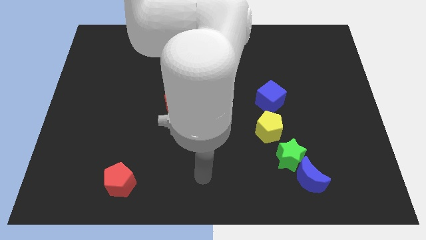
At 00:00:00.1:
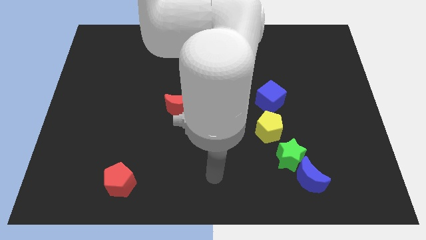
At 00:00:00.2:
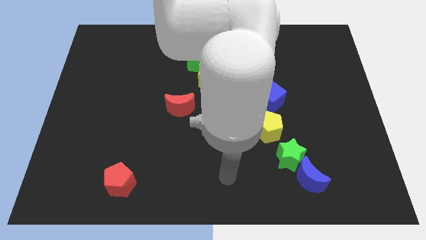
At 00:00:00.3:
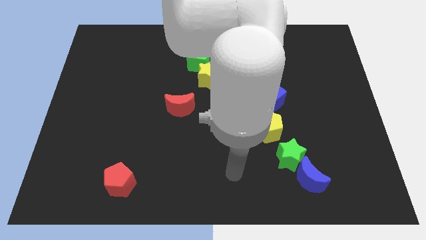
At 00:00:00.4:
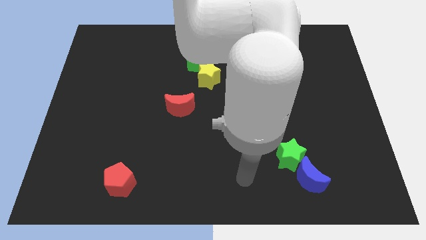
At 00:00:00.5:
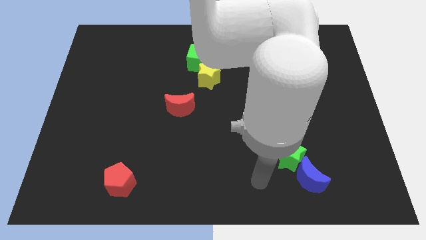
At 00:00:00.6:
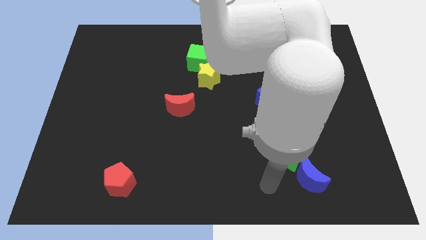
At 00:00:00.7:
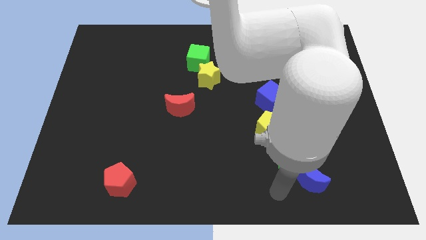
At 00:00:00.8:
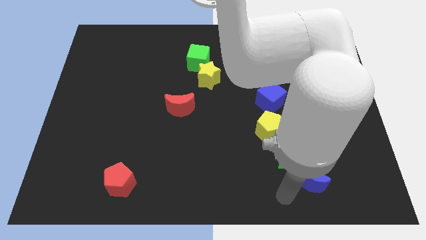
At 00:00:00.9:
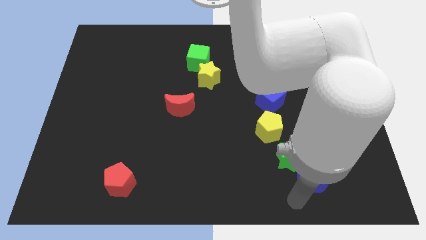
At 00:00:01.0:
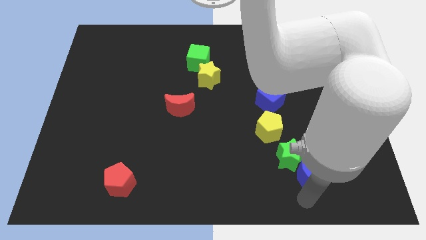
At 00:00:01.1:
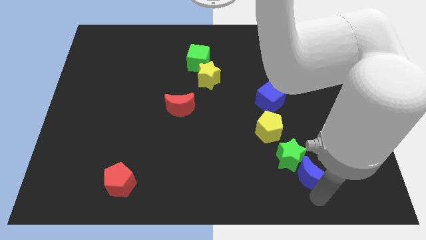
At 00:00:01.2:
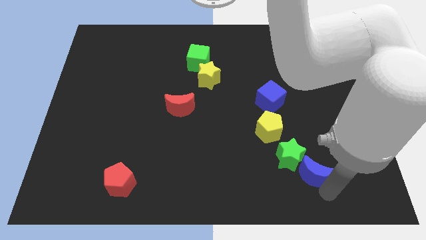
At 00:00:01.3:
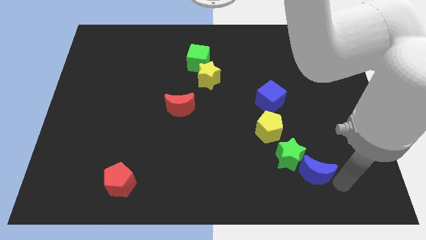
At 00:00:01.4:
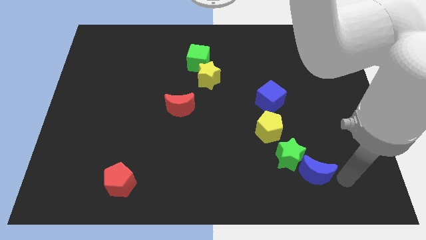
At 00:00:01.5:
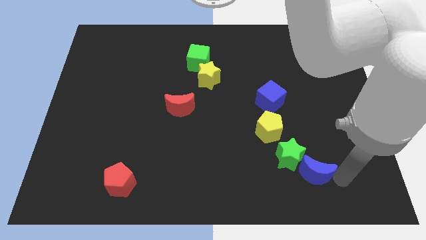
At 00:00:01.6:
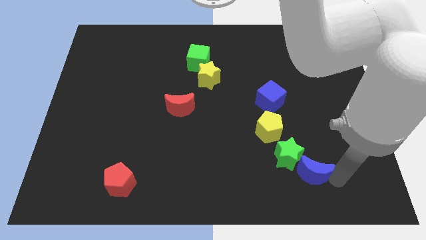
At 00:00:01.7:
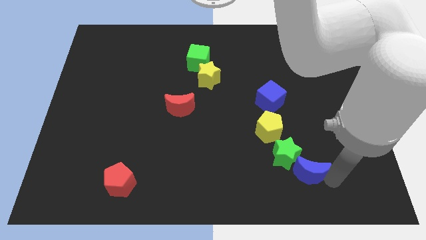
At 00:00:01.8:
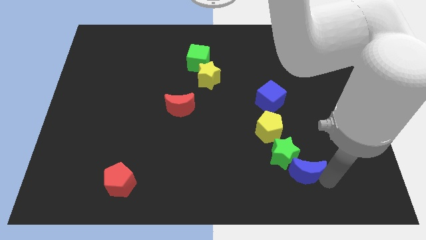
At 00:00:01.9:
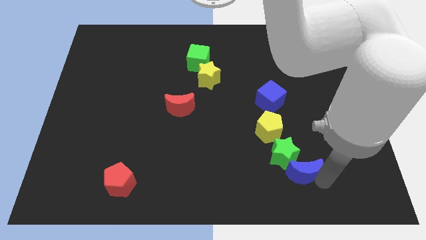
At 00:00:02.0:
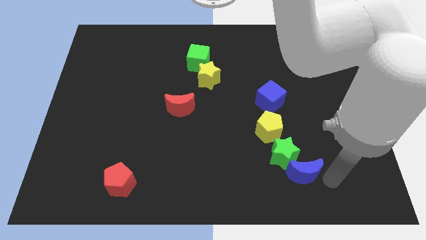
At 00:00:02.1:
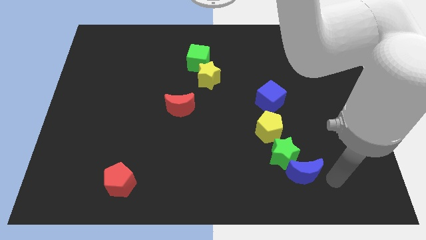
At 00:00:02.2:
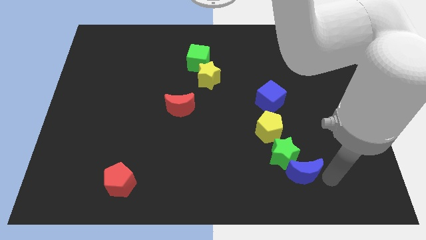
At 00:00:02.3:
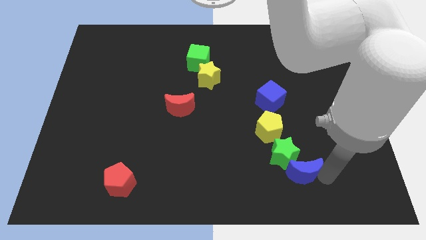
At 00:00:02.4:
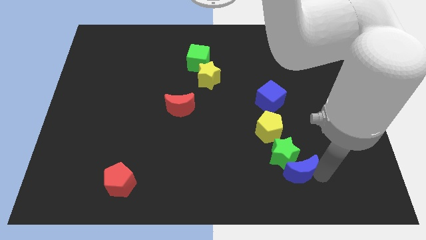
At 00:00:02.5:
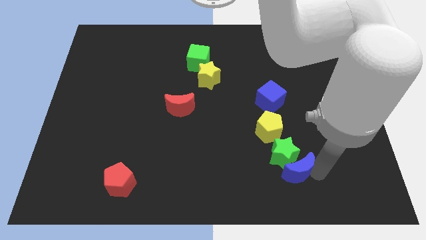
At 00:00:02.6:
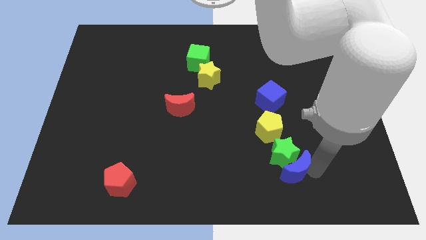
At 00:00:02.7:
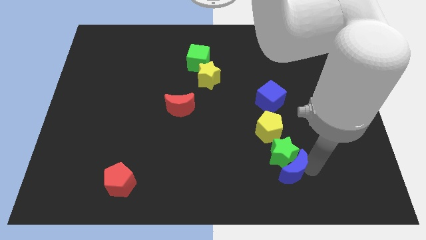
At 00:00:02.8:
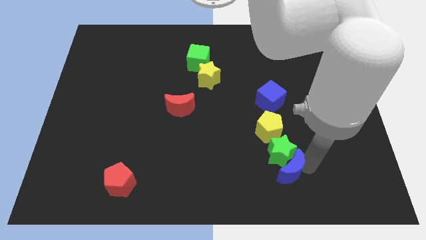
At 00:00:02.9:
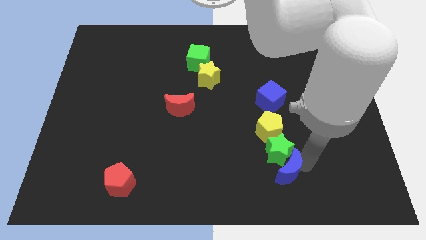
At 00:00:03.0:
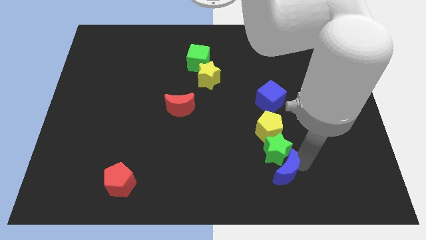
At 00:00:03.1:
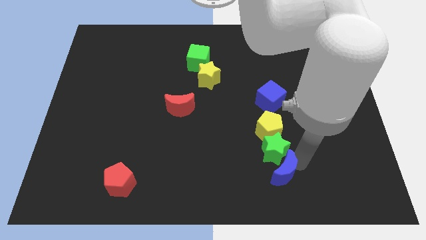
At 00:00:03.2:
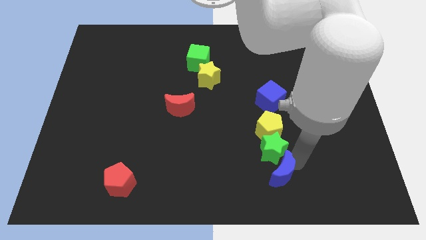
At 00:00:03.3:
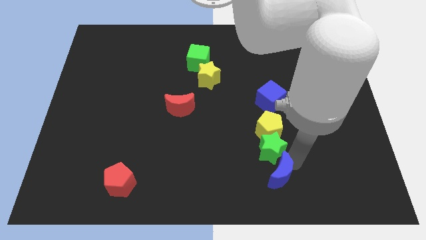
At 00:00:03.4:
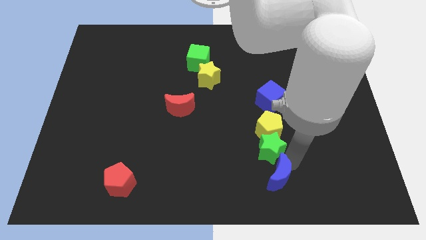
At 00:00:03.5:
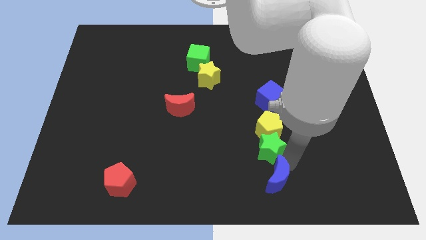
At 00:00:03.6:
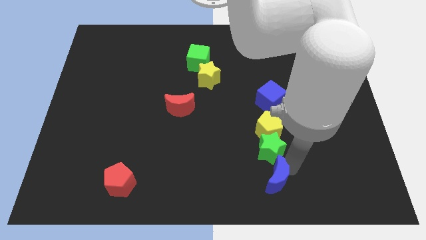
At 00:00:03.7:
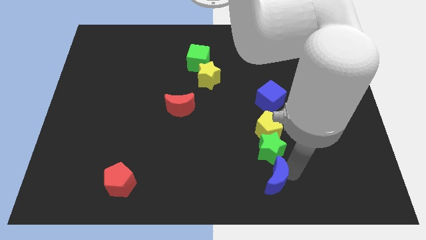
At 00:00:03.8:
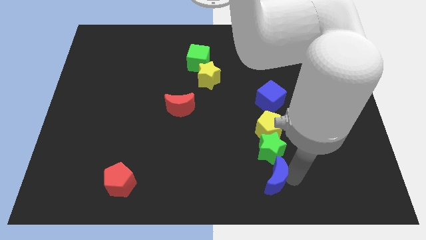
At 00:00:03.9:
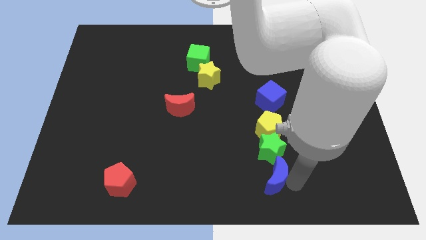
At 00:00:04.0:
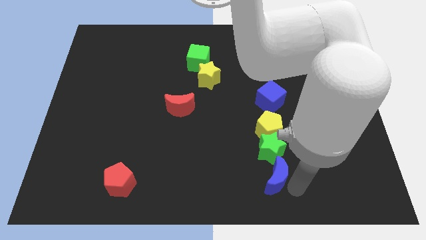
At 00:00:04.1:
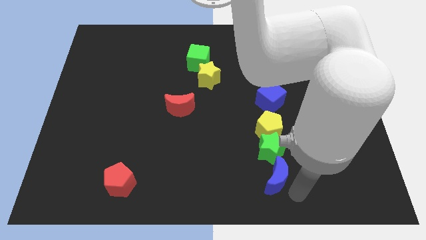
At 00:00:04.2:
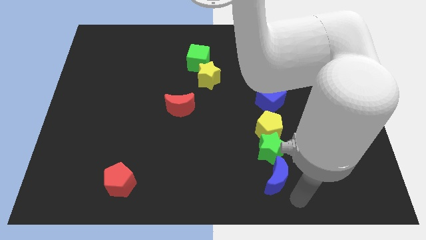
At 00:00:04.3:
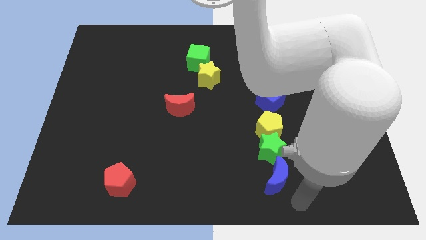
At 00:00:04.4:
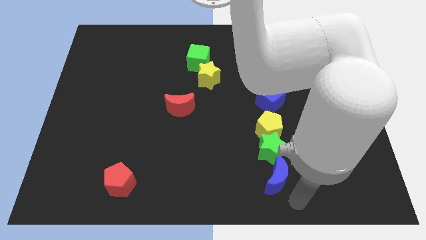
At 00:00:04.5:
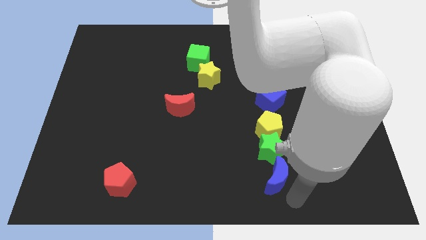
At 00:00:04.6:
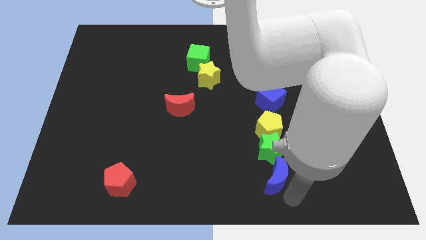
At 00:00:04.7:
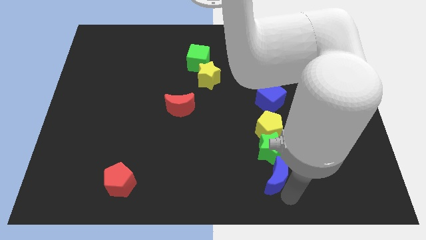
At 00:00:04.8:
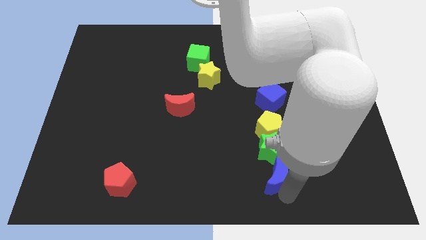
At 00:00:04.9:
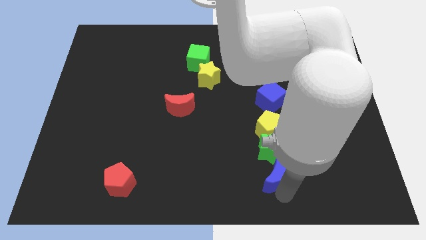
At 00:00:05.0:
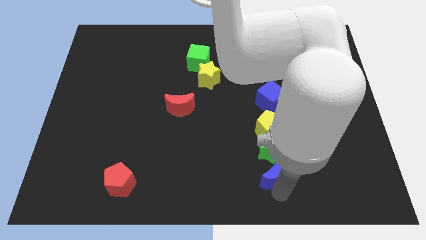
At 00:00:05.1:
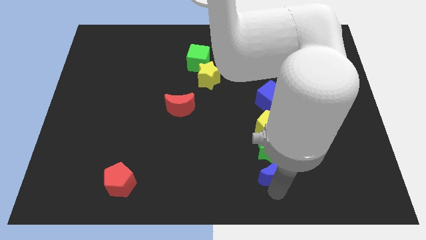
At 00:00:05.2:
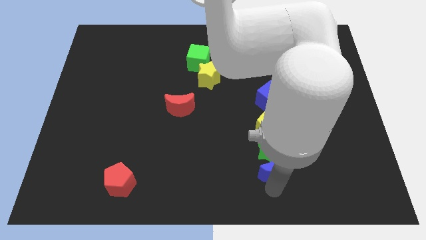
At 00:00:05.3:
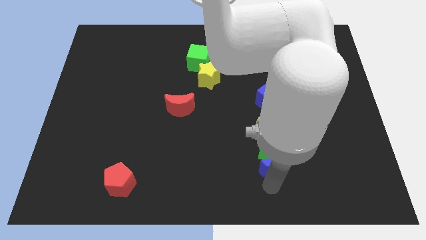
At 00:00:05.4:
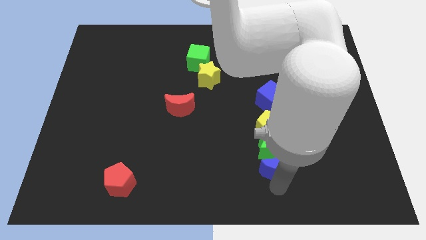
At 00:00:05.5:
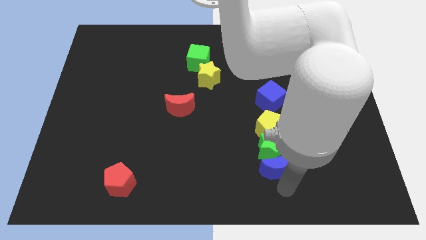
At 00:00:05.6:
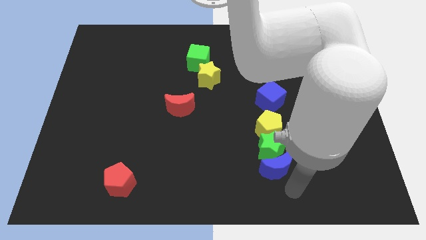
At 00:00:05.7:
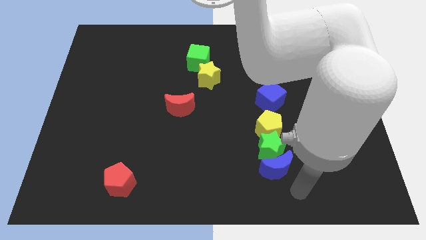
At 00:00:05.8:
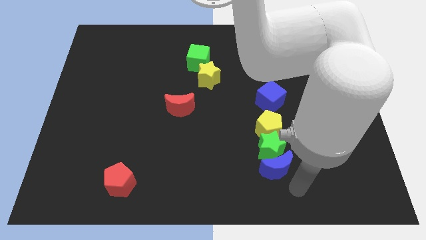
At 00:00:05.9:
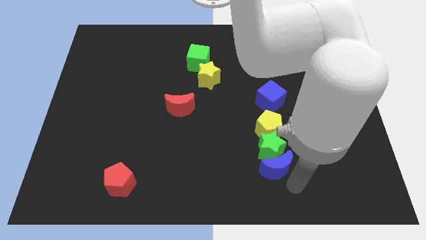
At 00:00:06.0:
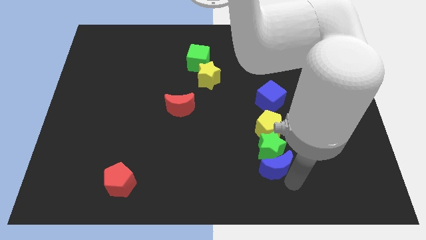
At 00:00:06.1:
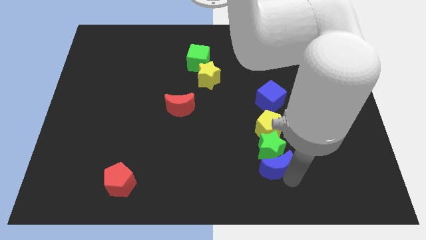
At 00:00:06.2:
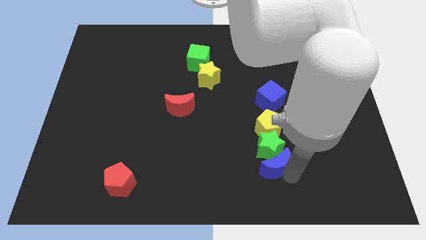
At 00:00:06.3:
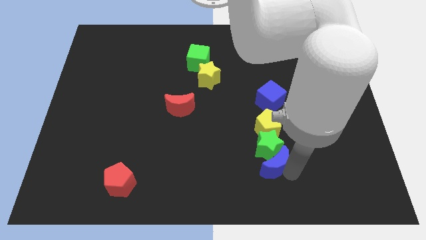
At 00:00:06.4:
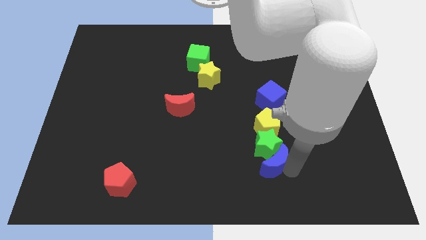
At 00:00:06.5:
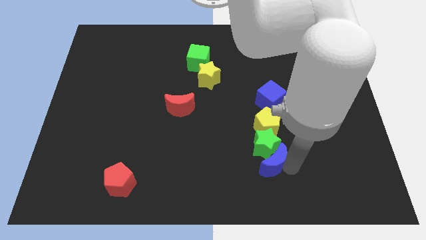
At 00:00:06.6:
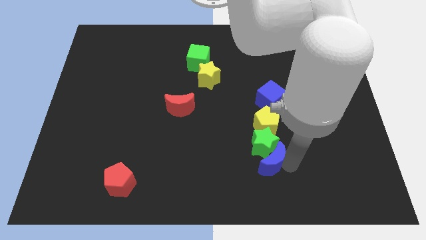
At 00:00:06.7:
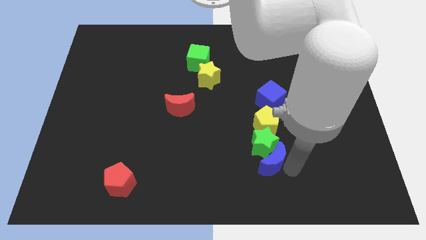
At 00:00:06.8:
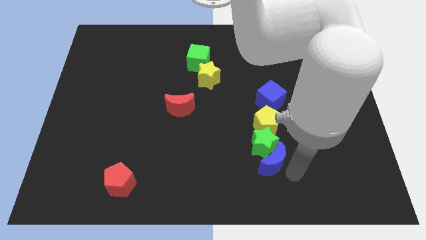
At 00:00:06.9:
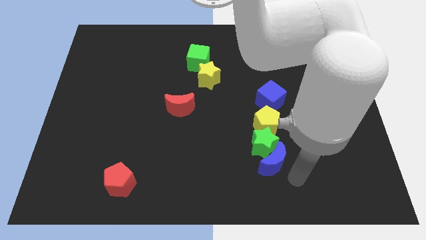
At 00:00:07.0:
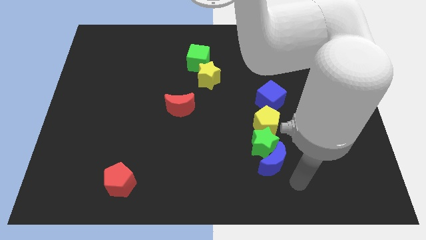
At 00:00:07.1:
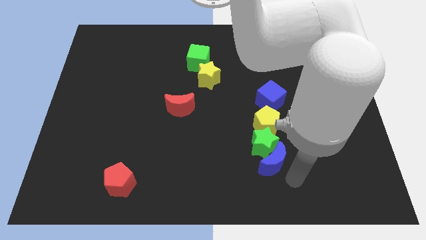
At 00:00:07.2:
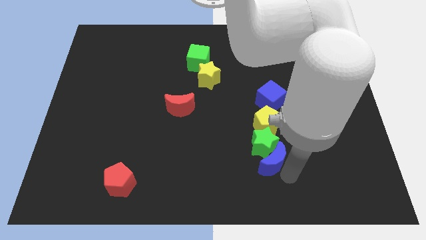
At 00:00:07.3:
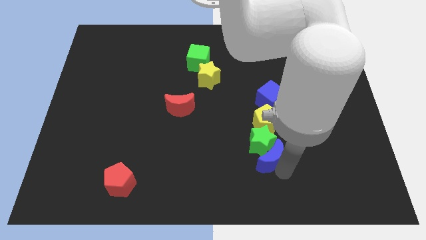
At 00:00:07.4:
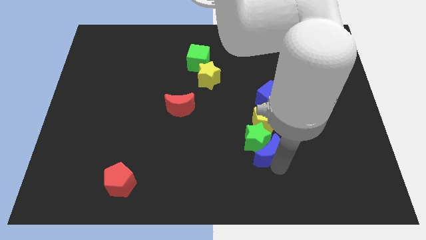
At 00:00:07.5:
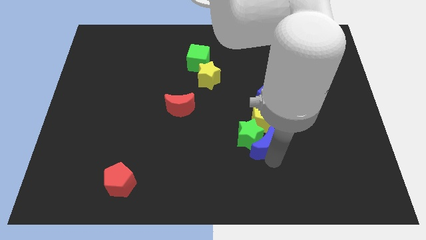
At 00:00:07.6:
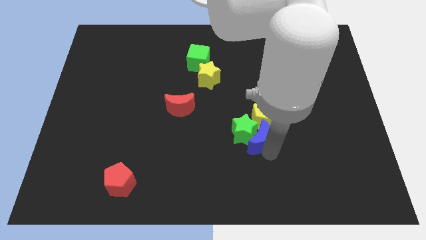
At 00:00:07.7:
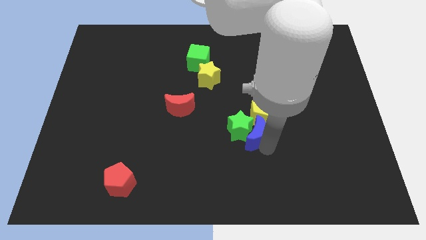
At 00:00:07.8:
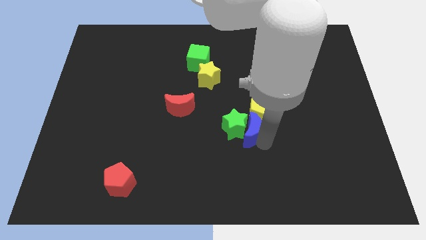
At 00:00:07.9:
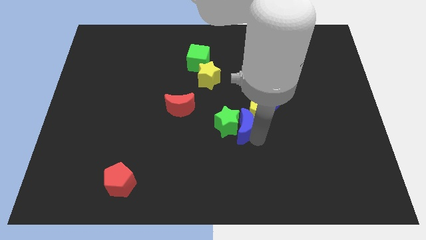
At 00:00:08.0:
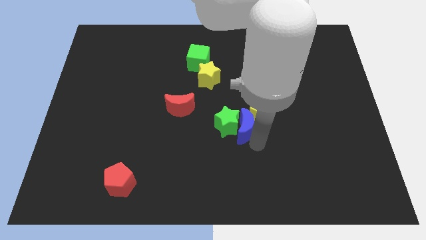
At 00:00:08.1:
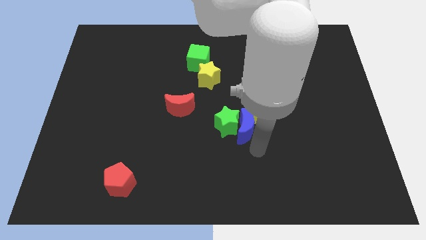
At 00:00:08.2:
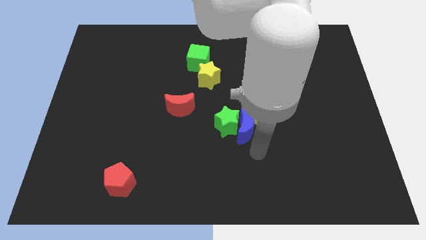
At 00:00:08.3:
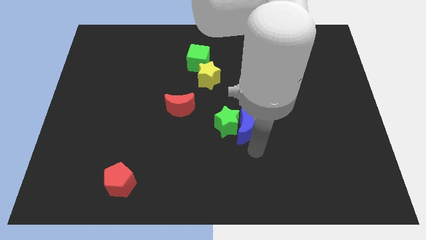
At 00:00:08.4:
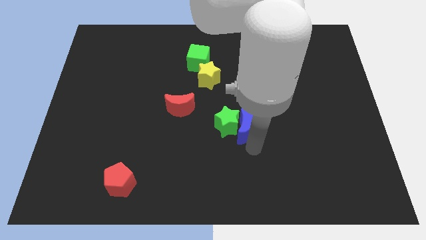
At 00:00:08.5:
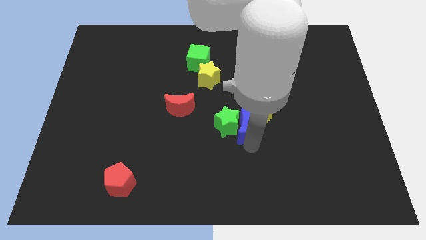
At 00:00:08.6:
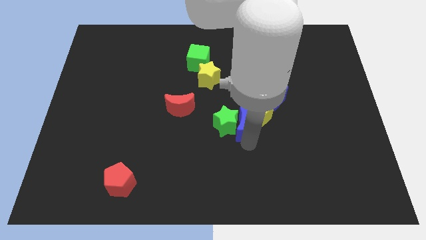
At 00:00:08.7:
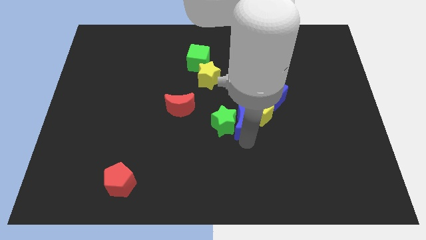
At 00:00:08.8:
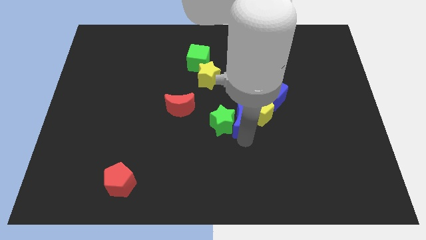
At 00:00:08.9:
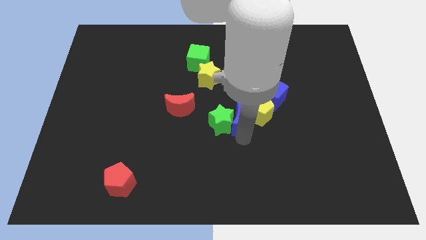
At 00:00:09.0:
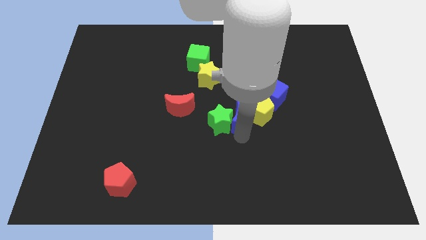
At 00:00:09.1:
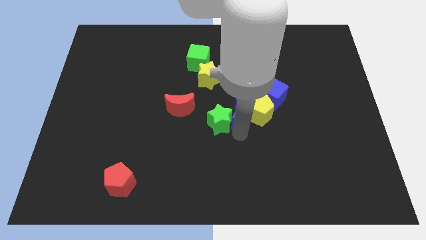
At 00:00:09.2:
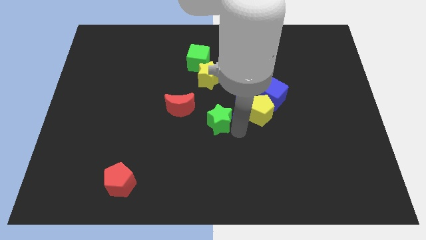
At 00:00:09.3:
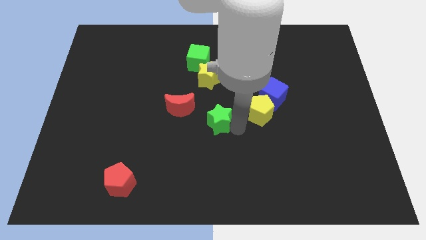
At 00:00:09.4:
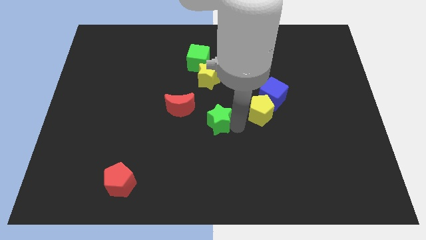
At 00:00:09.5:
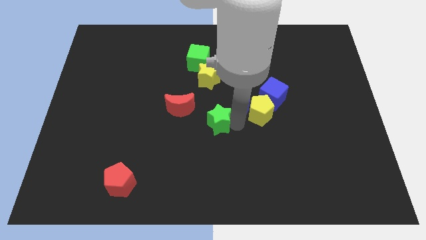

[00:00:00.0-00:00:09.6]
put the blue moon to the top of the yellow pentagon
